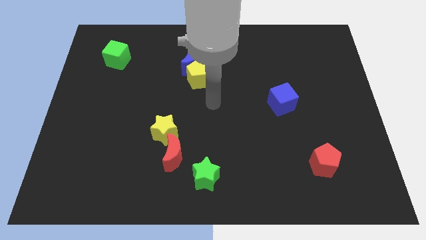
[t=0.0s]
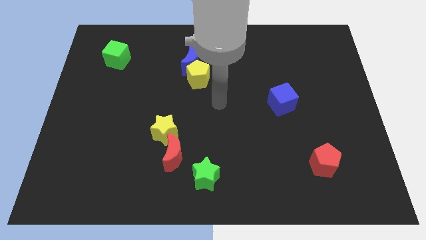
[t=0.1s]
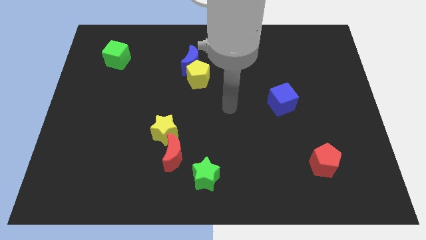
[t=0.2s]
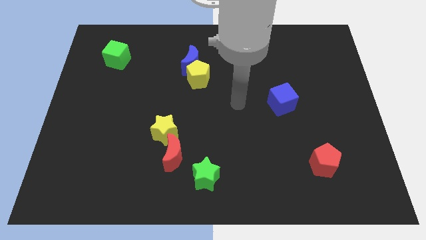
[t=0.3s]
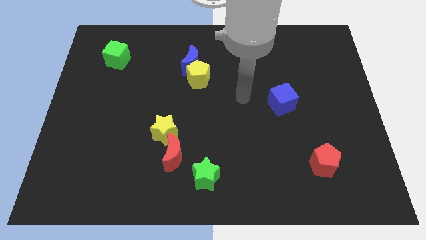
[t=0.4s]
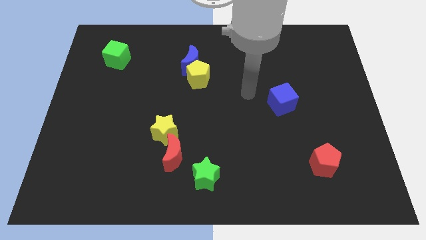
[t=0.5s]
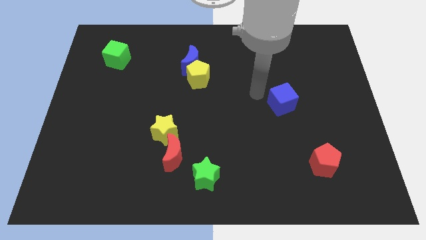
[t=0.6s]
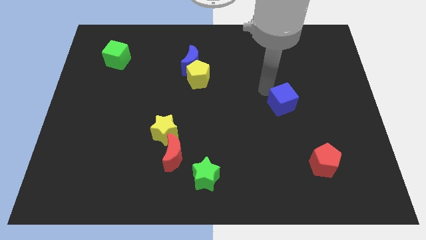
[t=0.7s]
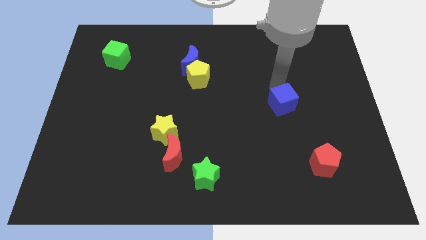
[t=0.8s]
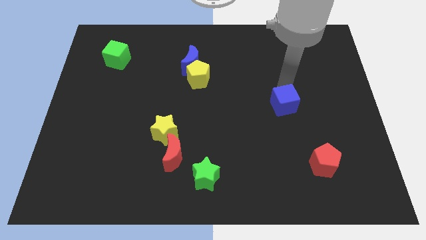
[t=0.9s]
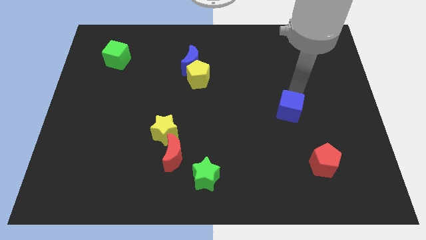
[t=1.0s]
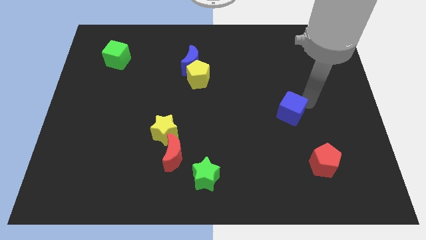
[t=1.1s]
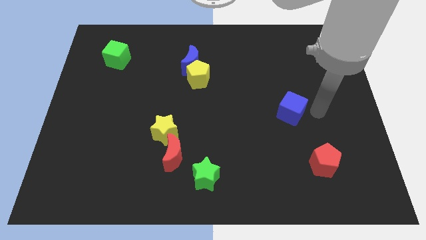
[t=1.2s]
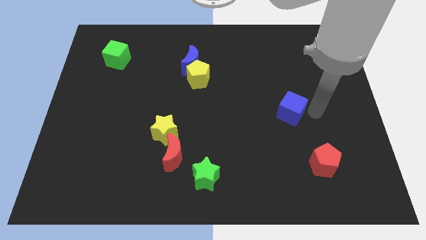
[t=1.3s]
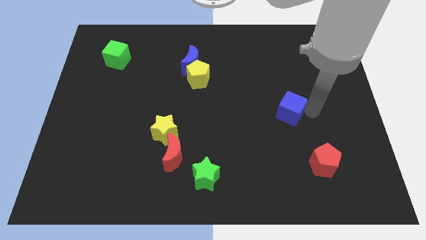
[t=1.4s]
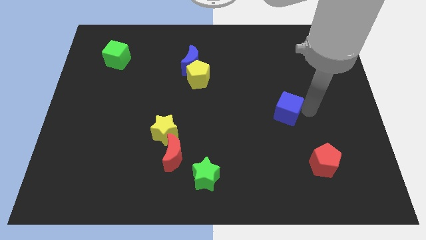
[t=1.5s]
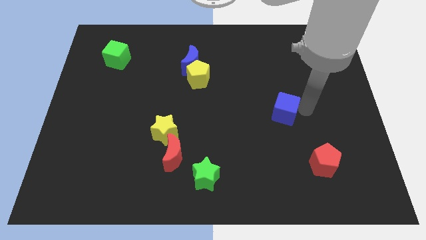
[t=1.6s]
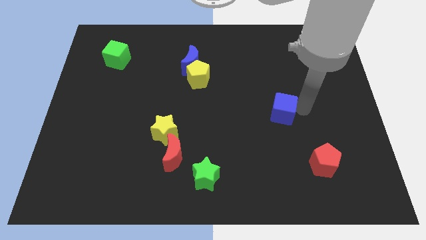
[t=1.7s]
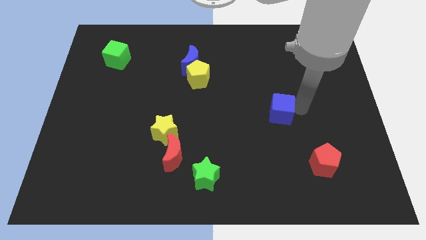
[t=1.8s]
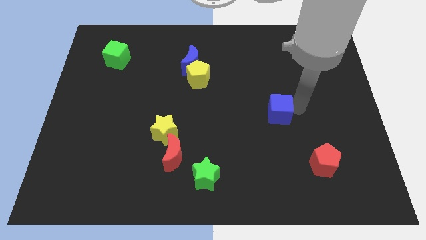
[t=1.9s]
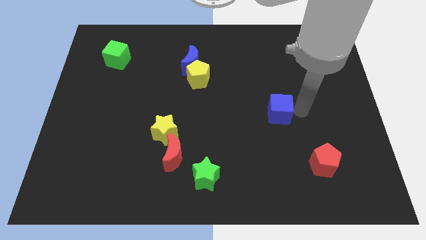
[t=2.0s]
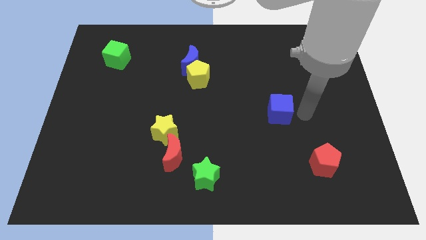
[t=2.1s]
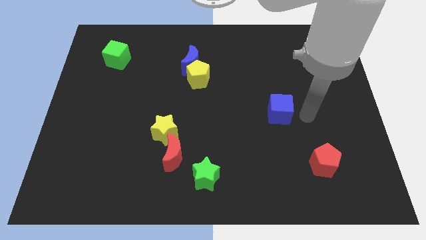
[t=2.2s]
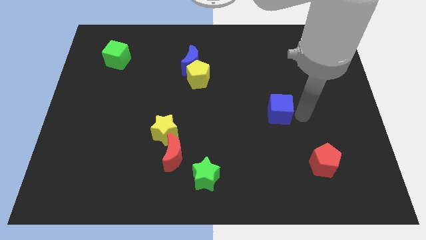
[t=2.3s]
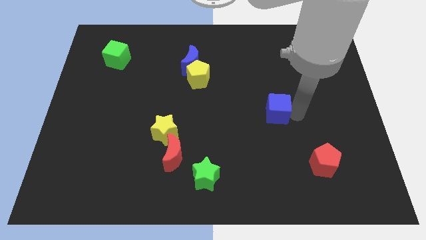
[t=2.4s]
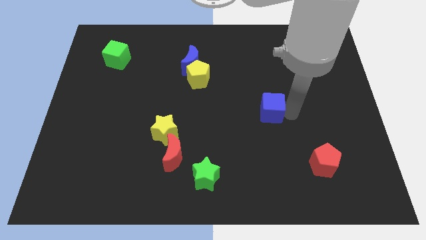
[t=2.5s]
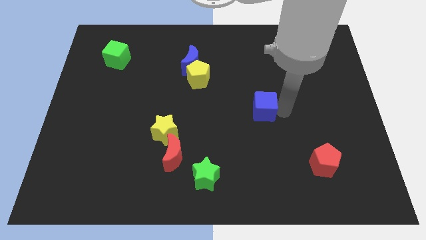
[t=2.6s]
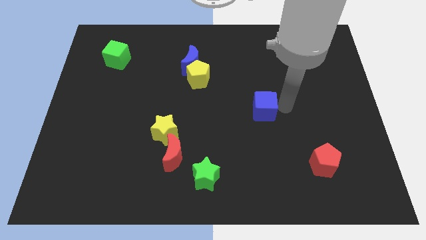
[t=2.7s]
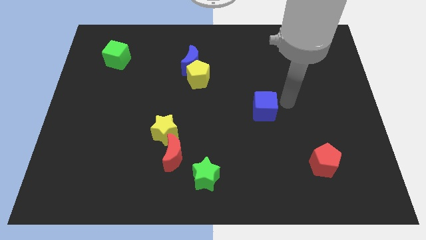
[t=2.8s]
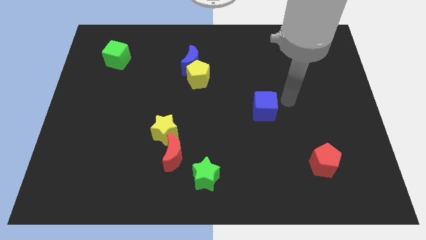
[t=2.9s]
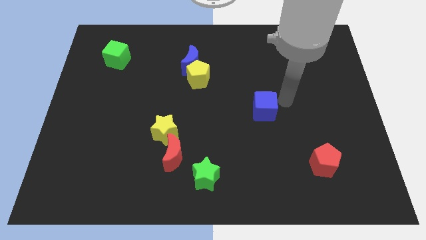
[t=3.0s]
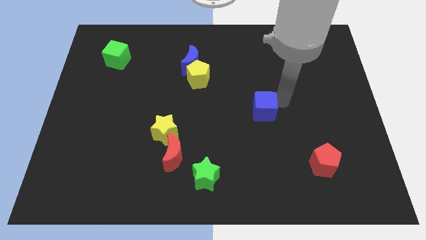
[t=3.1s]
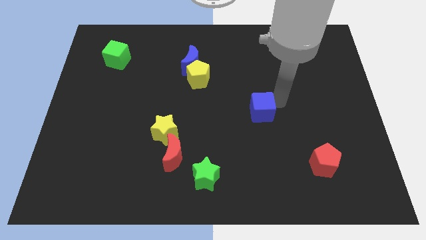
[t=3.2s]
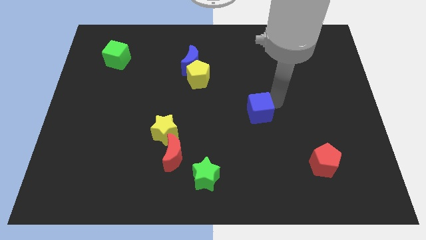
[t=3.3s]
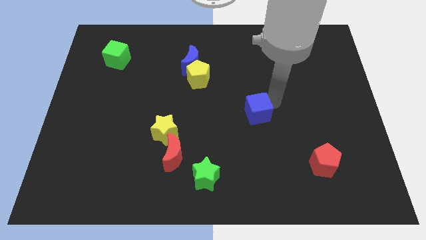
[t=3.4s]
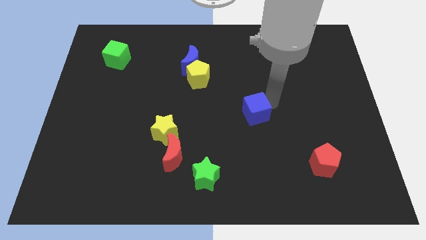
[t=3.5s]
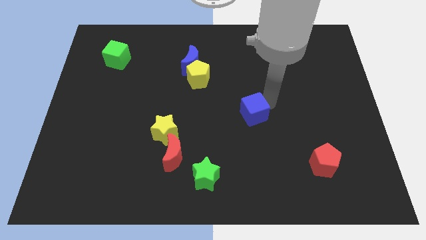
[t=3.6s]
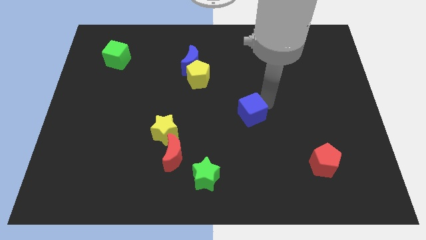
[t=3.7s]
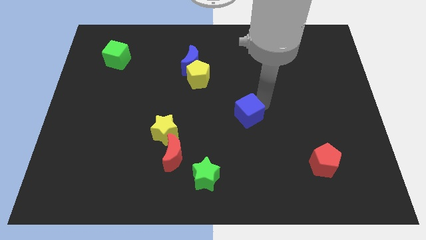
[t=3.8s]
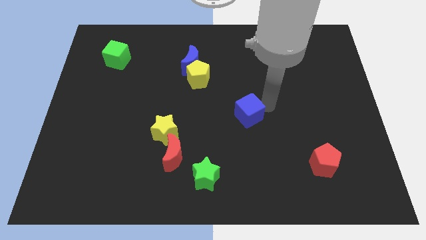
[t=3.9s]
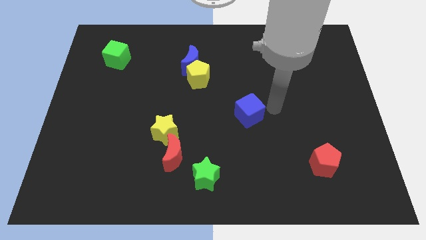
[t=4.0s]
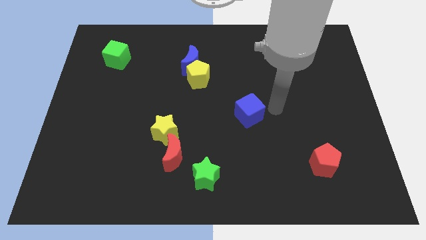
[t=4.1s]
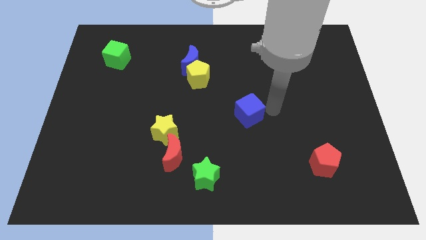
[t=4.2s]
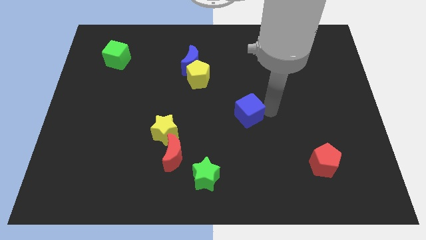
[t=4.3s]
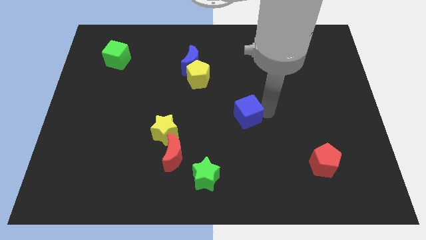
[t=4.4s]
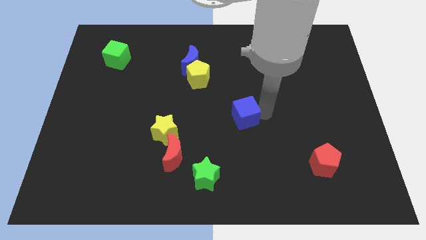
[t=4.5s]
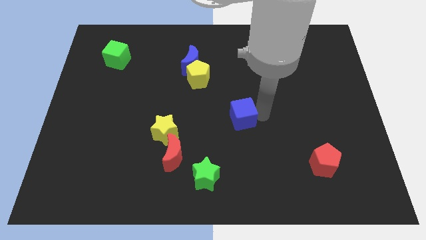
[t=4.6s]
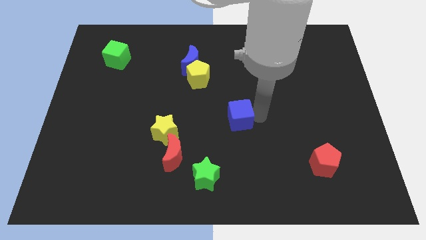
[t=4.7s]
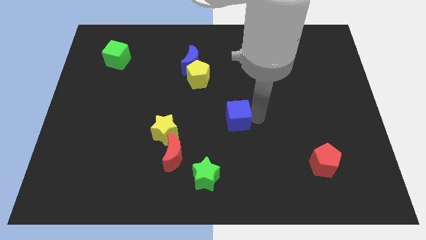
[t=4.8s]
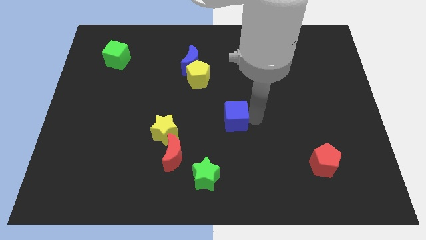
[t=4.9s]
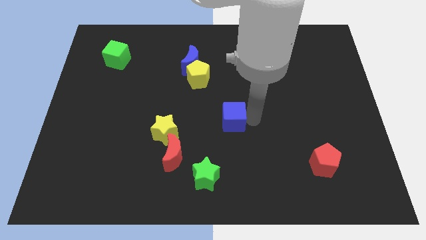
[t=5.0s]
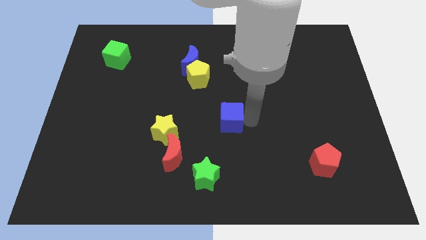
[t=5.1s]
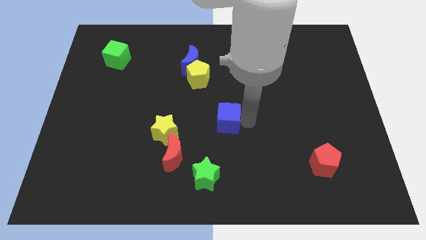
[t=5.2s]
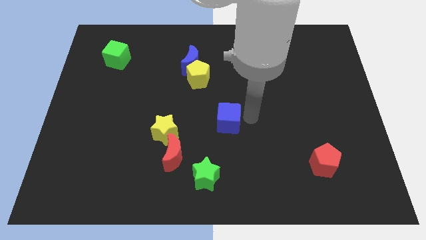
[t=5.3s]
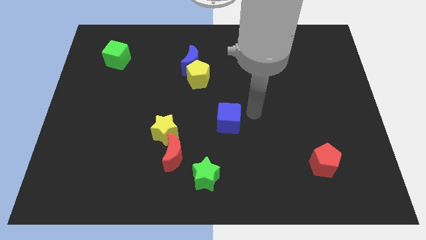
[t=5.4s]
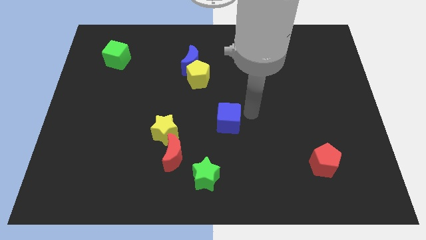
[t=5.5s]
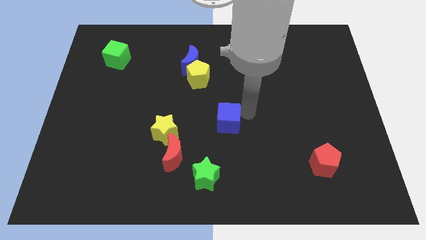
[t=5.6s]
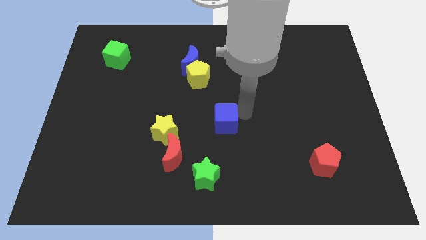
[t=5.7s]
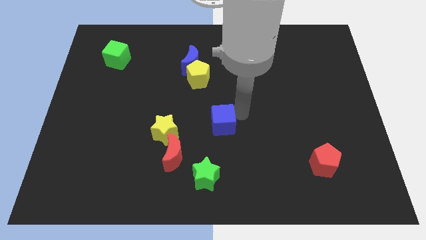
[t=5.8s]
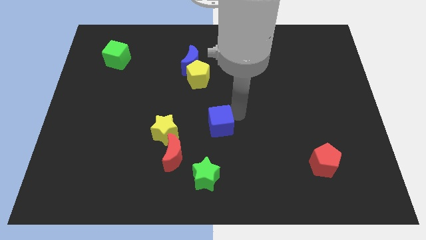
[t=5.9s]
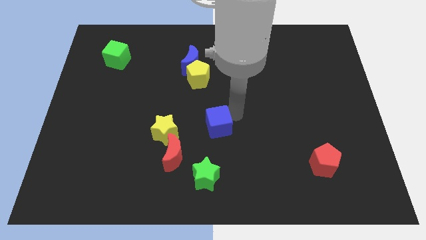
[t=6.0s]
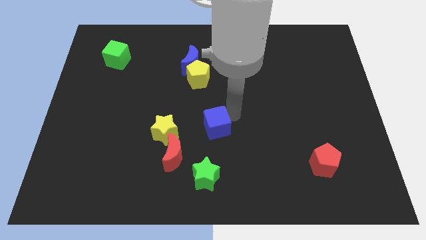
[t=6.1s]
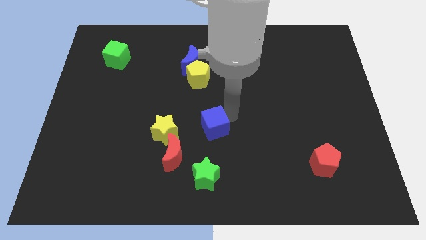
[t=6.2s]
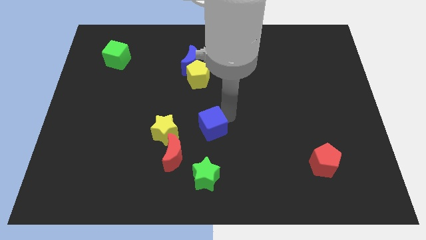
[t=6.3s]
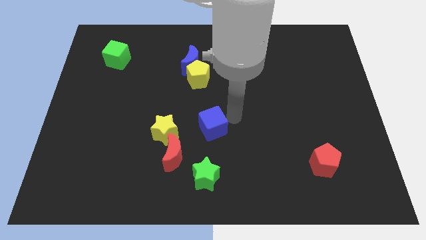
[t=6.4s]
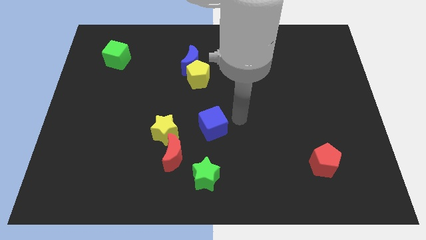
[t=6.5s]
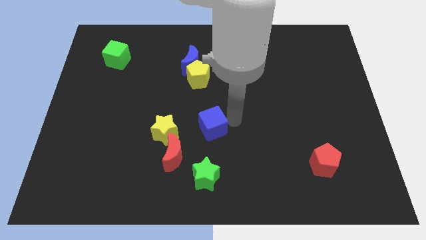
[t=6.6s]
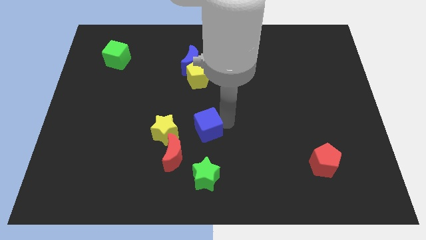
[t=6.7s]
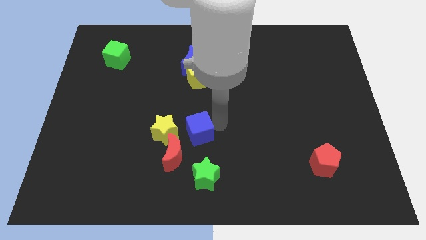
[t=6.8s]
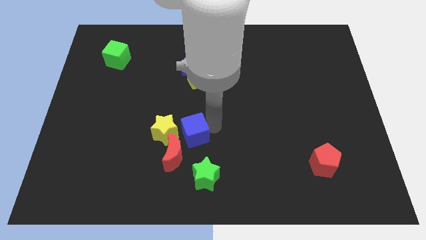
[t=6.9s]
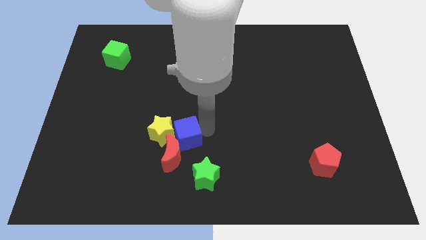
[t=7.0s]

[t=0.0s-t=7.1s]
put the blue cube to the yellow star

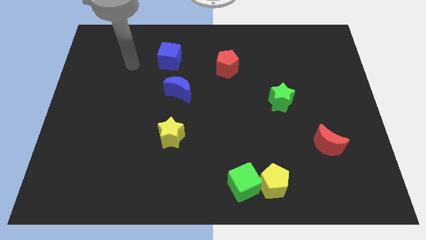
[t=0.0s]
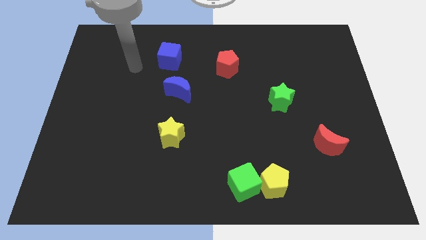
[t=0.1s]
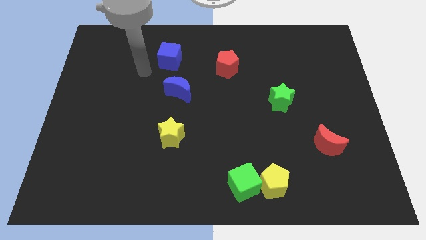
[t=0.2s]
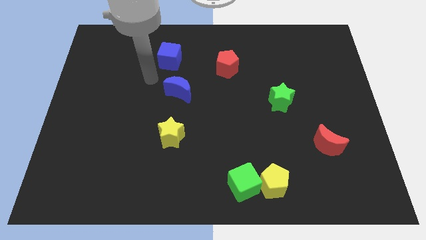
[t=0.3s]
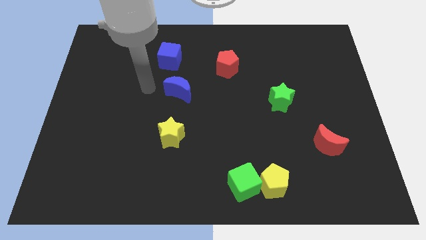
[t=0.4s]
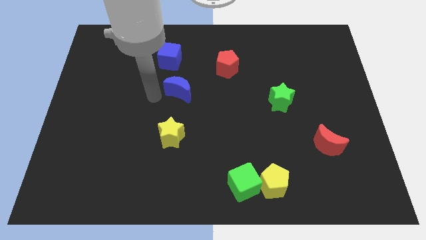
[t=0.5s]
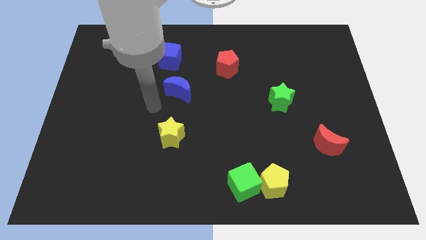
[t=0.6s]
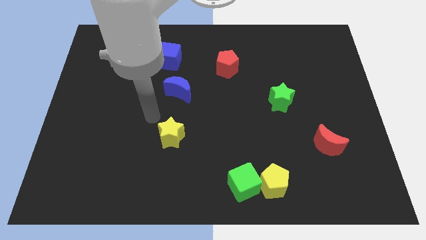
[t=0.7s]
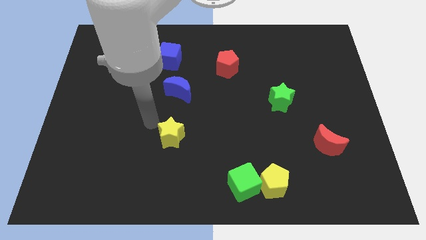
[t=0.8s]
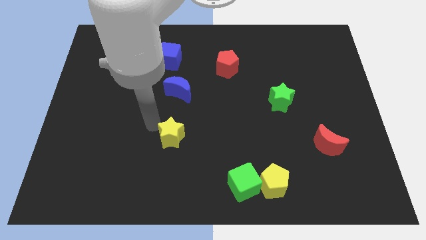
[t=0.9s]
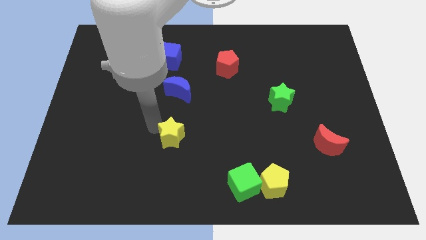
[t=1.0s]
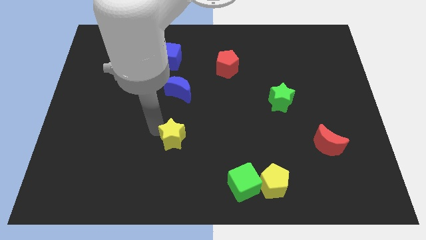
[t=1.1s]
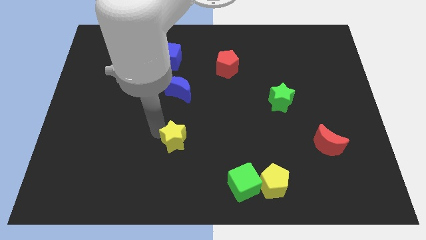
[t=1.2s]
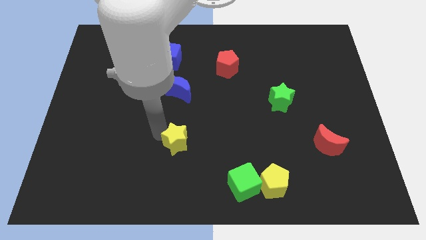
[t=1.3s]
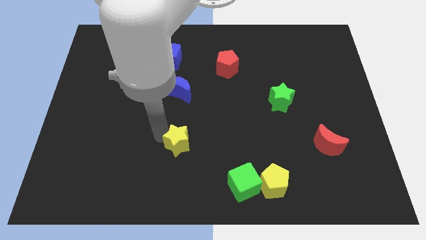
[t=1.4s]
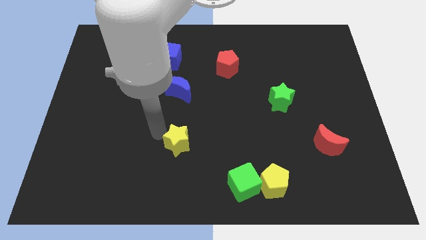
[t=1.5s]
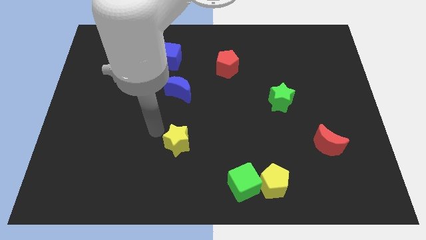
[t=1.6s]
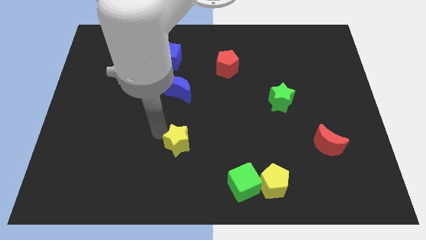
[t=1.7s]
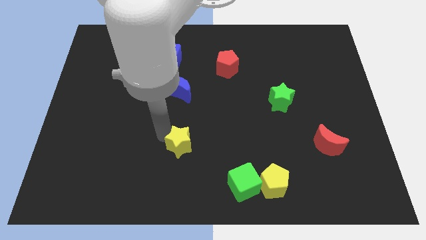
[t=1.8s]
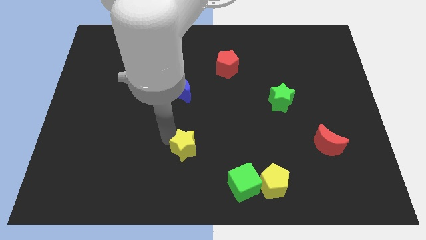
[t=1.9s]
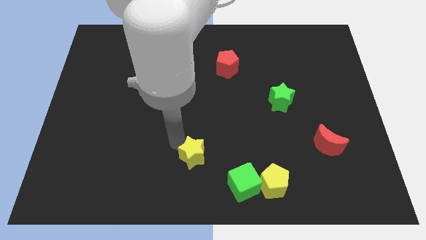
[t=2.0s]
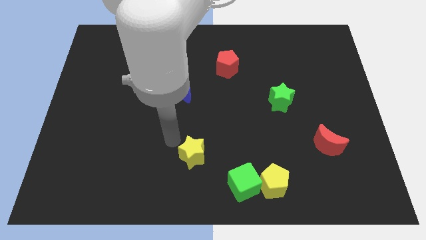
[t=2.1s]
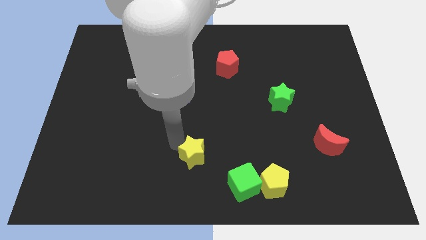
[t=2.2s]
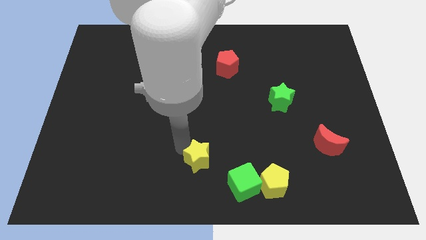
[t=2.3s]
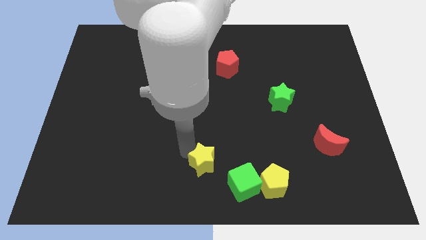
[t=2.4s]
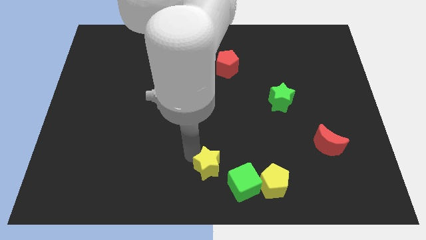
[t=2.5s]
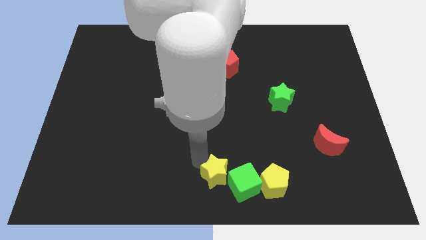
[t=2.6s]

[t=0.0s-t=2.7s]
slide the yellow star next to the green cube
